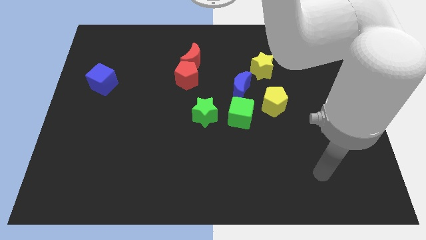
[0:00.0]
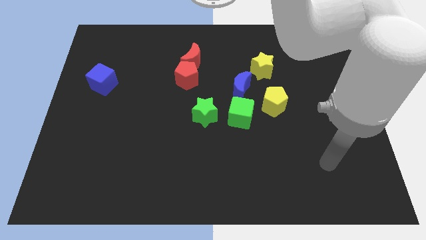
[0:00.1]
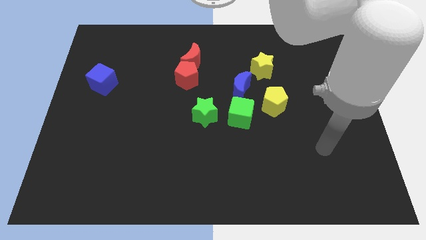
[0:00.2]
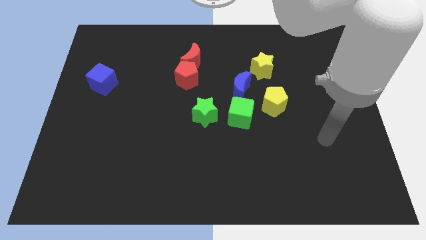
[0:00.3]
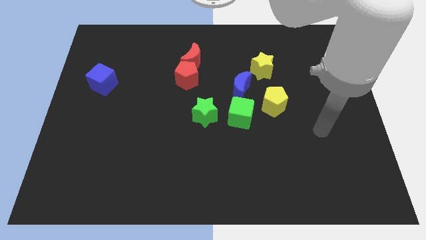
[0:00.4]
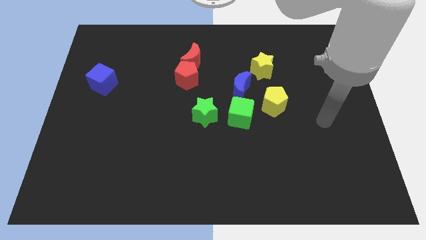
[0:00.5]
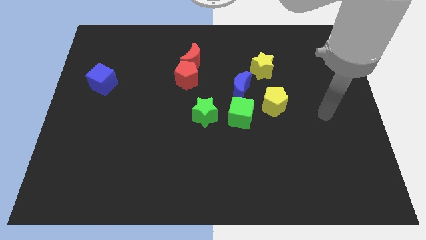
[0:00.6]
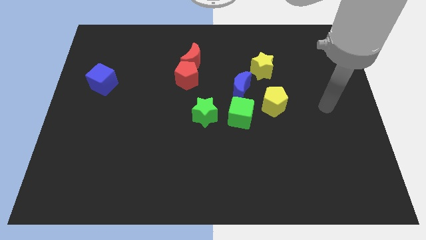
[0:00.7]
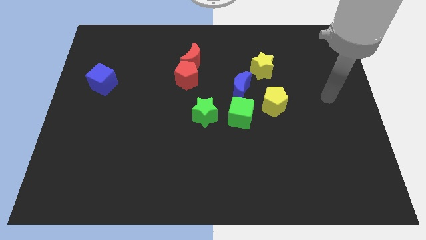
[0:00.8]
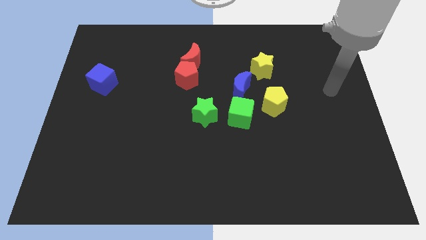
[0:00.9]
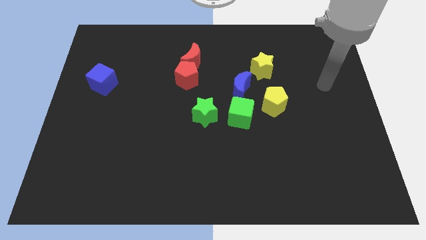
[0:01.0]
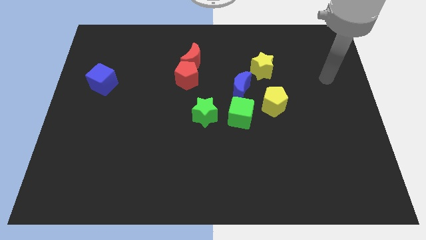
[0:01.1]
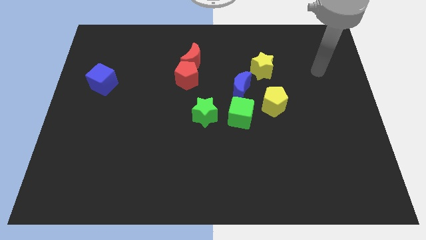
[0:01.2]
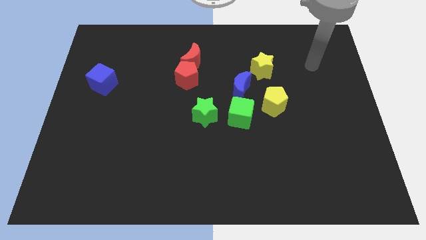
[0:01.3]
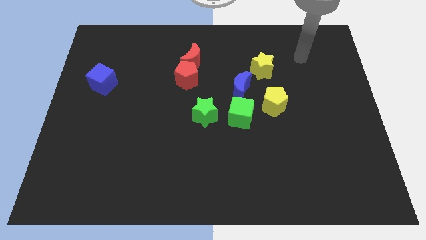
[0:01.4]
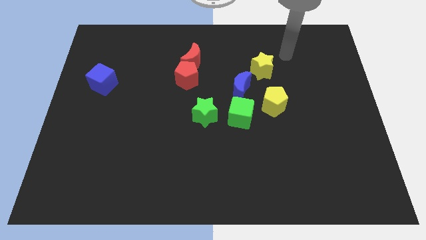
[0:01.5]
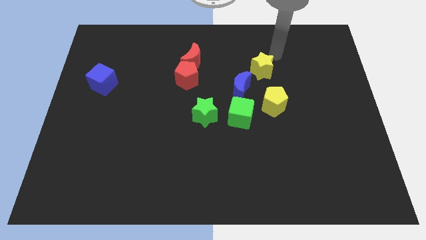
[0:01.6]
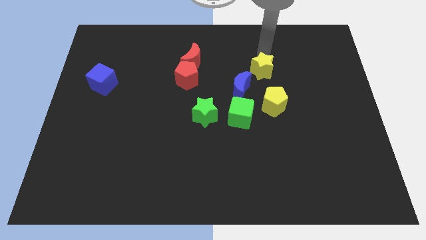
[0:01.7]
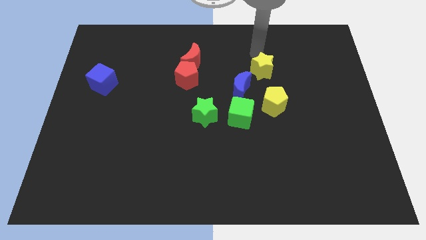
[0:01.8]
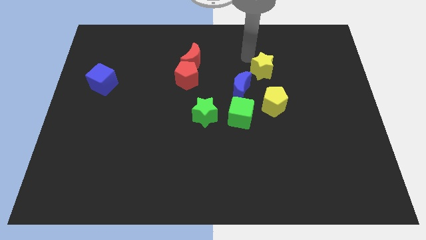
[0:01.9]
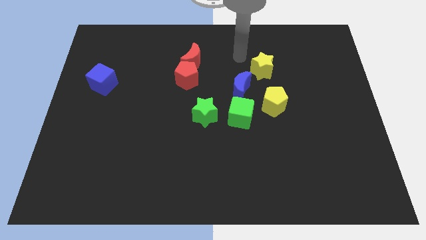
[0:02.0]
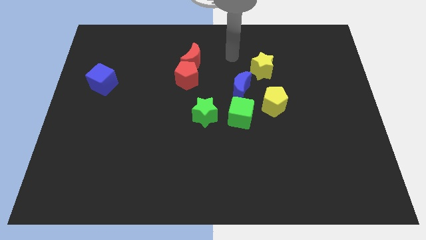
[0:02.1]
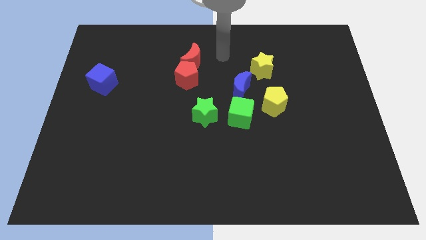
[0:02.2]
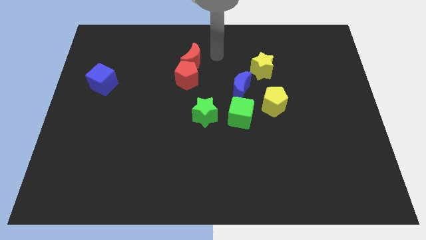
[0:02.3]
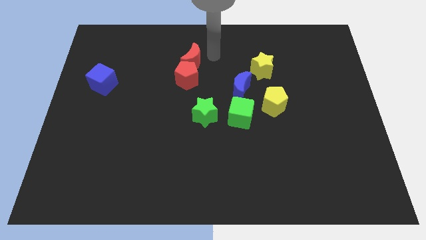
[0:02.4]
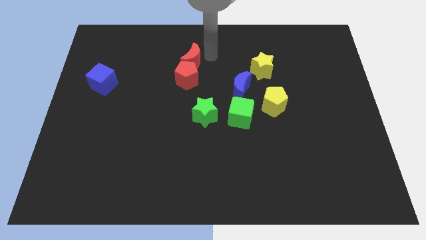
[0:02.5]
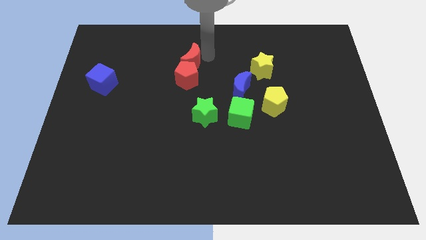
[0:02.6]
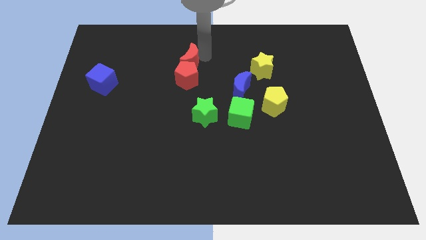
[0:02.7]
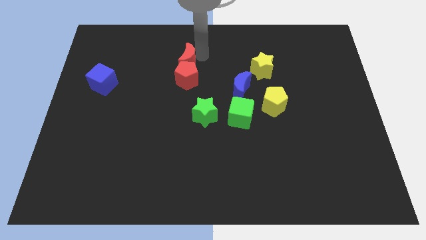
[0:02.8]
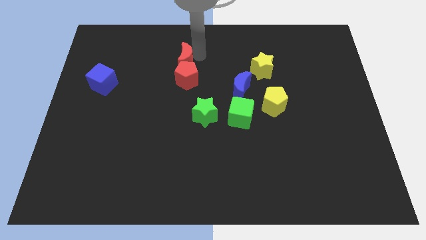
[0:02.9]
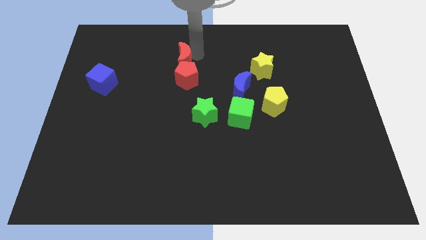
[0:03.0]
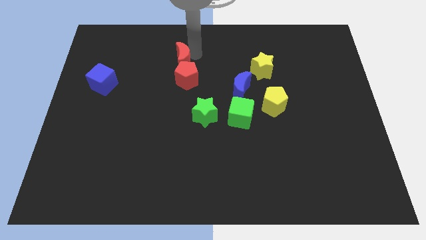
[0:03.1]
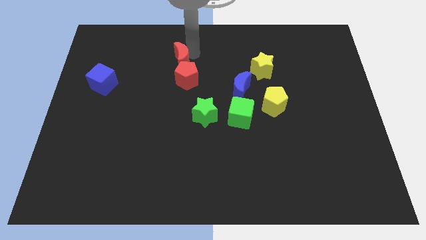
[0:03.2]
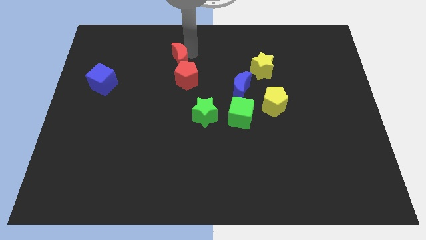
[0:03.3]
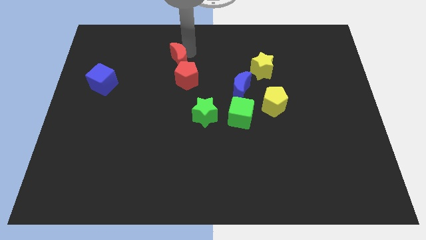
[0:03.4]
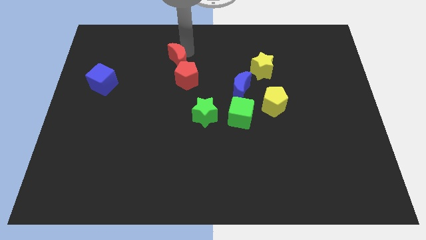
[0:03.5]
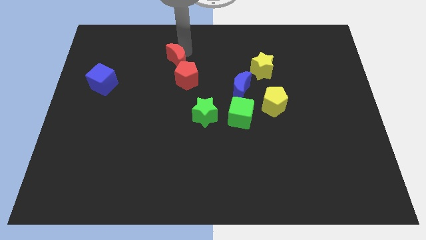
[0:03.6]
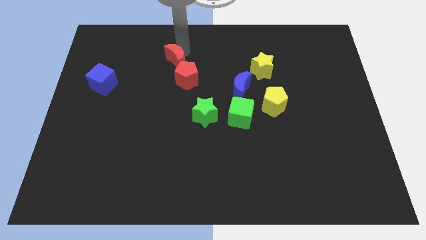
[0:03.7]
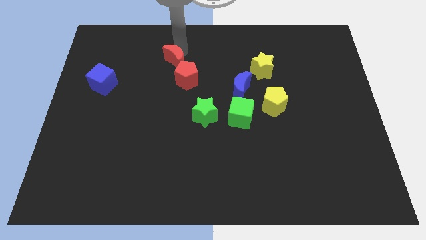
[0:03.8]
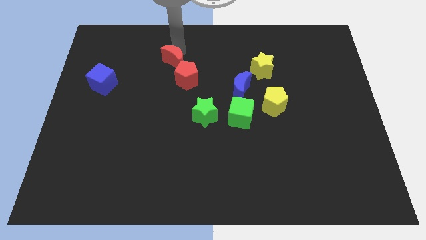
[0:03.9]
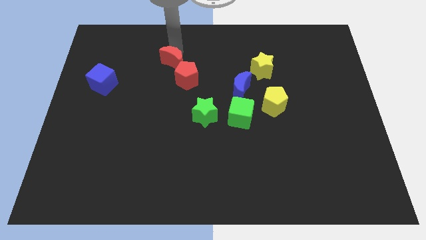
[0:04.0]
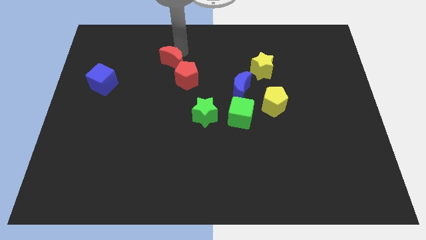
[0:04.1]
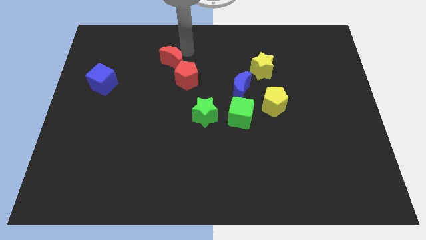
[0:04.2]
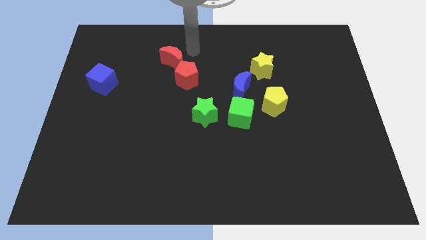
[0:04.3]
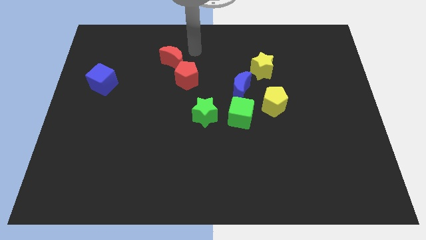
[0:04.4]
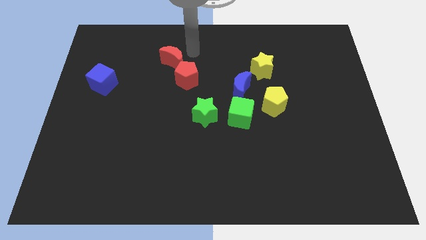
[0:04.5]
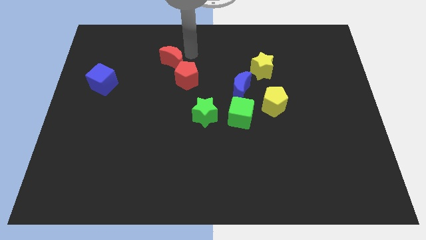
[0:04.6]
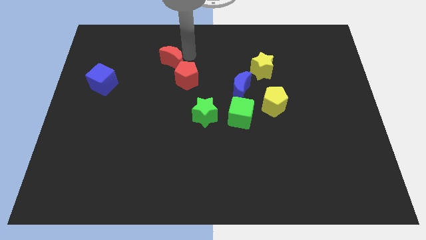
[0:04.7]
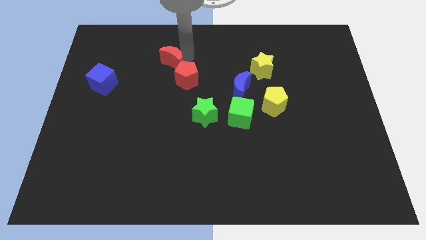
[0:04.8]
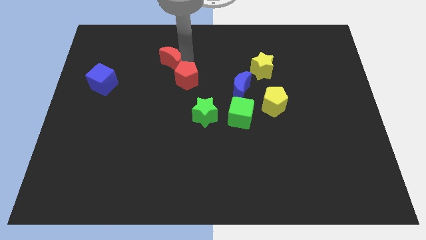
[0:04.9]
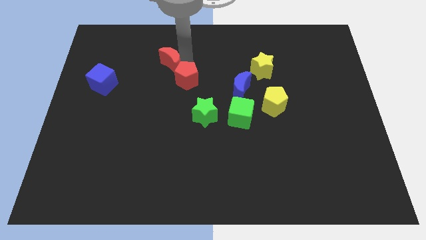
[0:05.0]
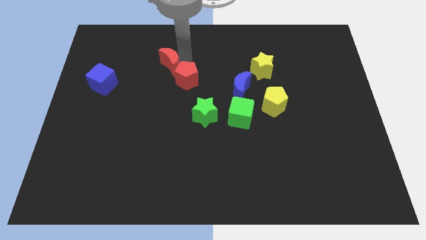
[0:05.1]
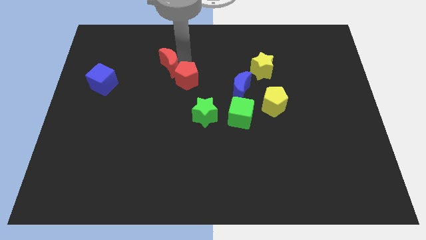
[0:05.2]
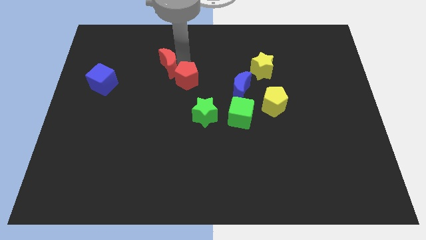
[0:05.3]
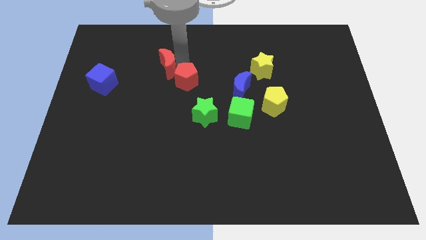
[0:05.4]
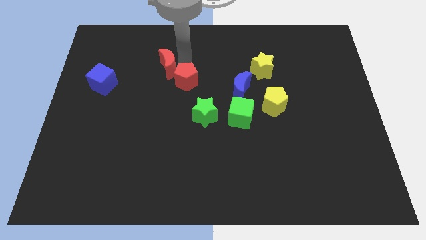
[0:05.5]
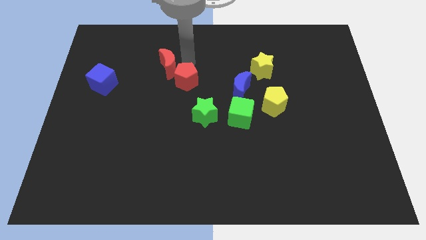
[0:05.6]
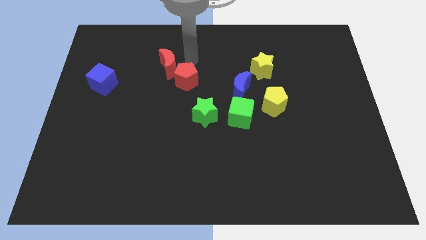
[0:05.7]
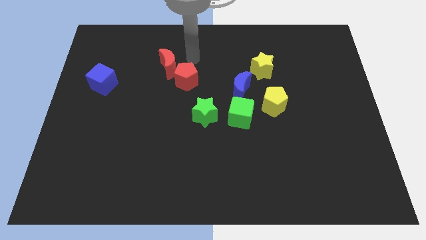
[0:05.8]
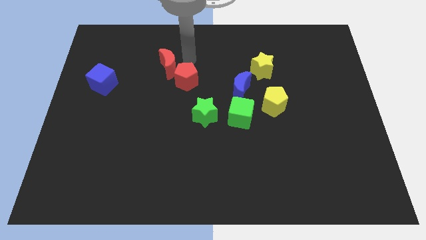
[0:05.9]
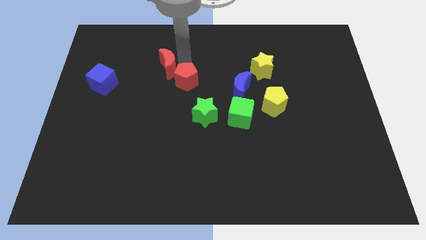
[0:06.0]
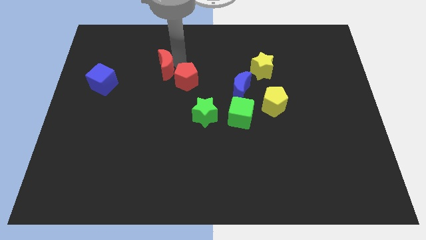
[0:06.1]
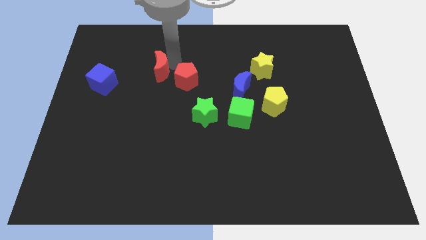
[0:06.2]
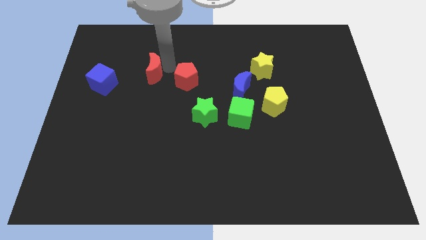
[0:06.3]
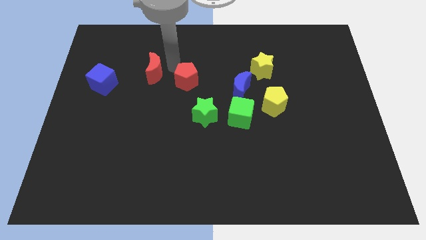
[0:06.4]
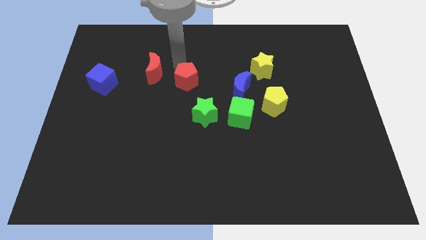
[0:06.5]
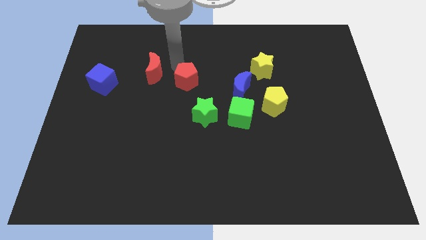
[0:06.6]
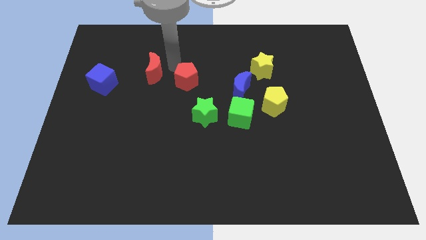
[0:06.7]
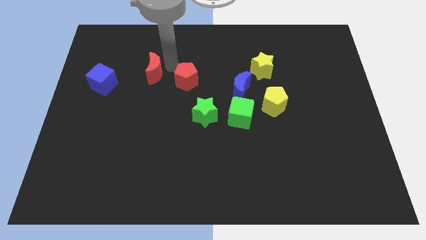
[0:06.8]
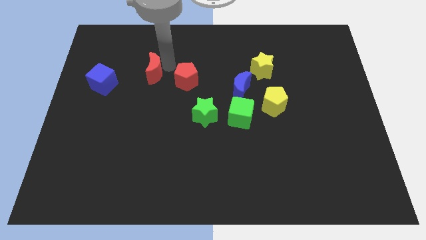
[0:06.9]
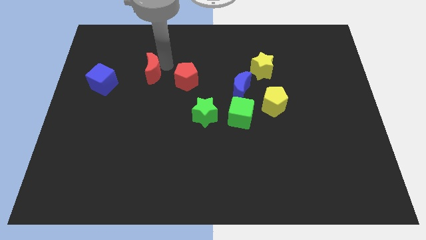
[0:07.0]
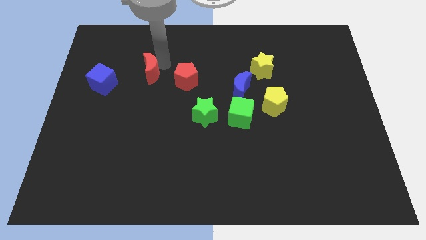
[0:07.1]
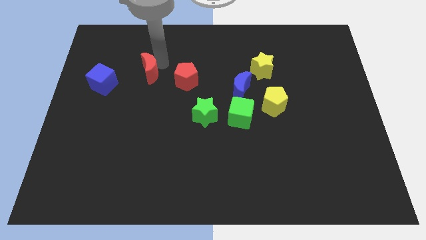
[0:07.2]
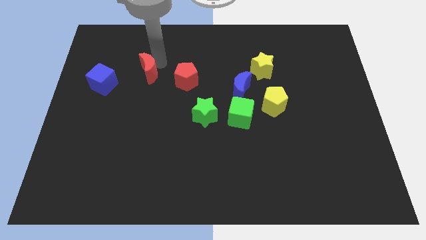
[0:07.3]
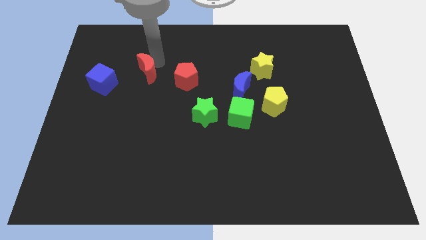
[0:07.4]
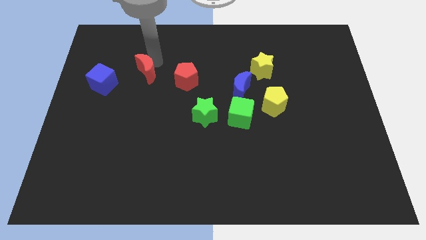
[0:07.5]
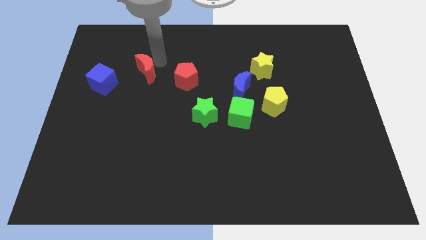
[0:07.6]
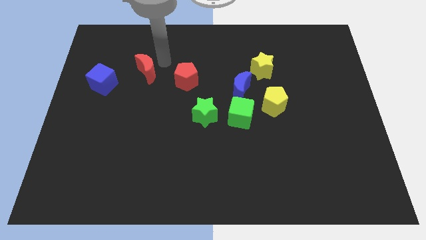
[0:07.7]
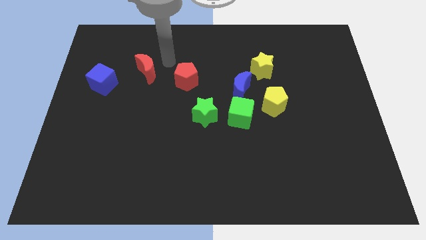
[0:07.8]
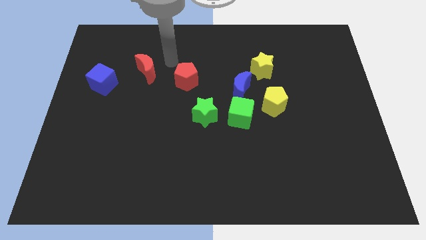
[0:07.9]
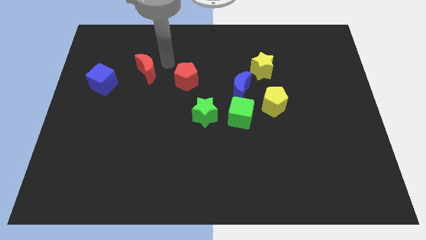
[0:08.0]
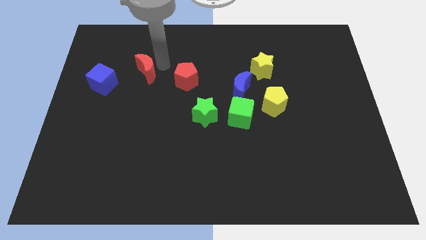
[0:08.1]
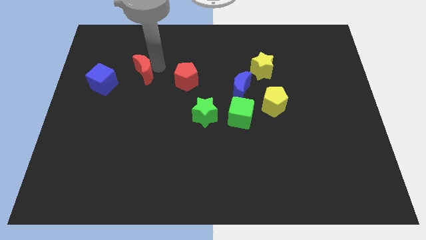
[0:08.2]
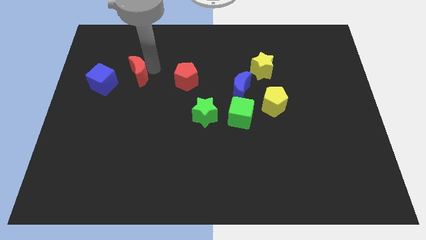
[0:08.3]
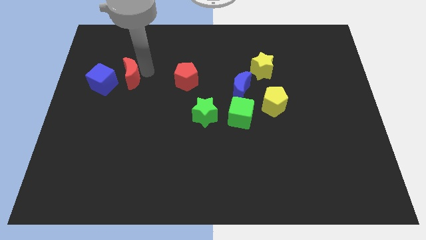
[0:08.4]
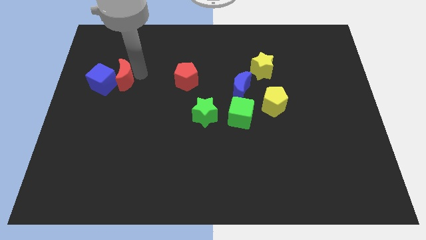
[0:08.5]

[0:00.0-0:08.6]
move the red moon to the blue cube
